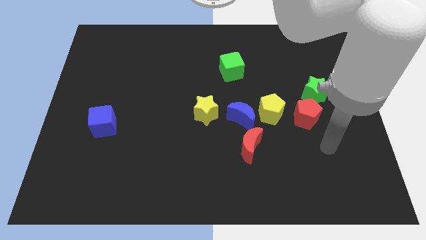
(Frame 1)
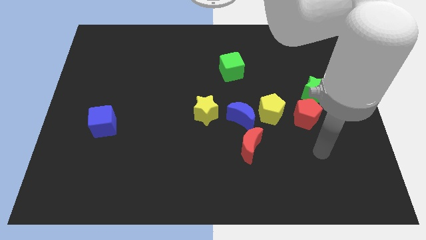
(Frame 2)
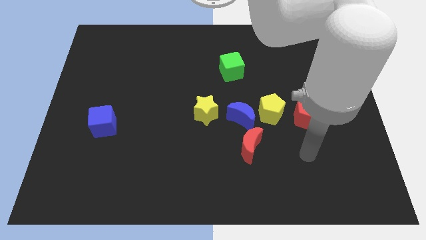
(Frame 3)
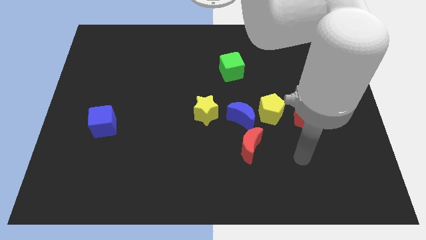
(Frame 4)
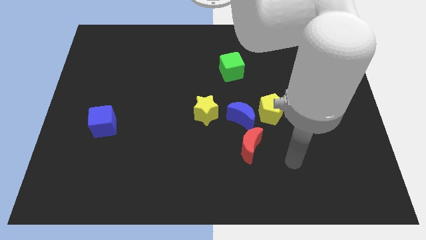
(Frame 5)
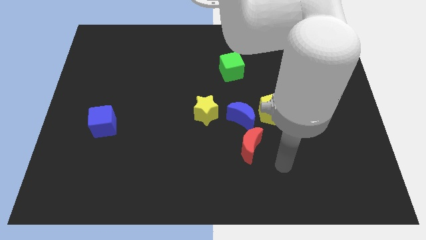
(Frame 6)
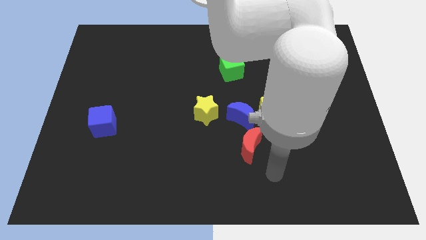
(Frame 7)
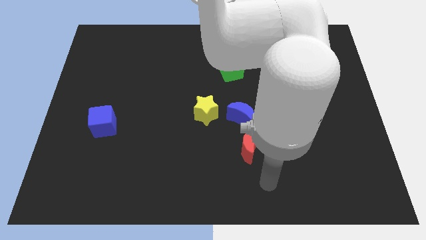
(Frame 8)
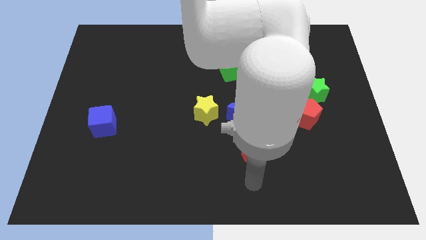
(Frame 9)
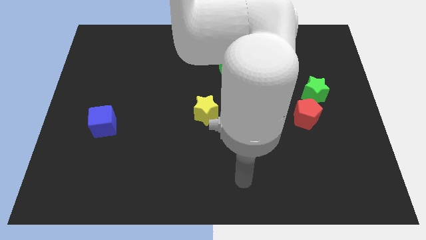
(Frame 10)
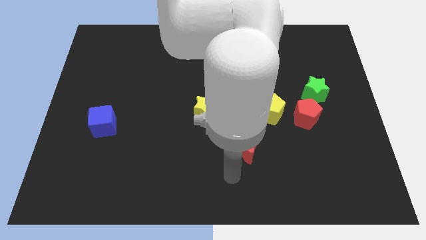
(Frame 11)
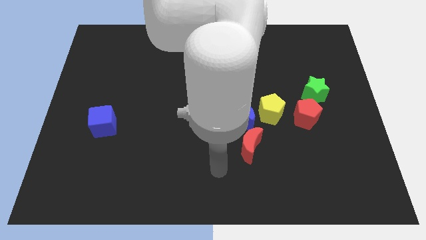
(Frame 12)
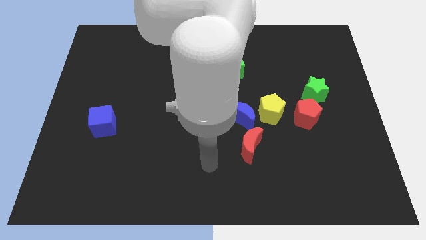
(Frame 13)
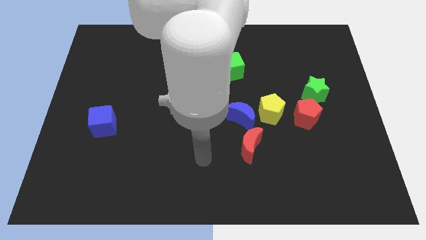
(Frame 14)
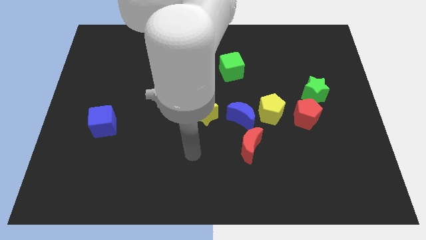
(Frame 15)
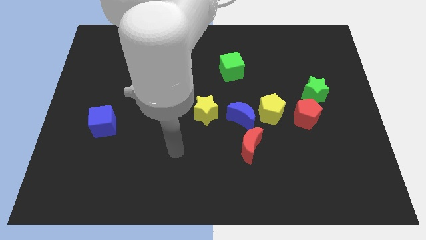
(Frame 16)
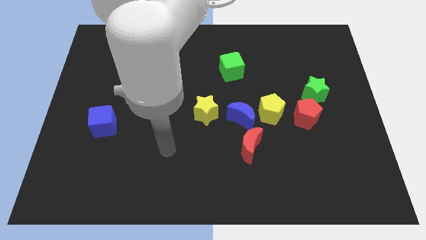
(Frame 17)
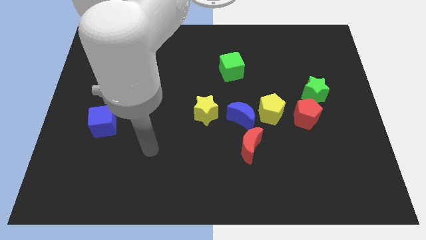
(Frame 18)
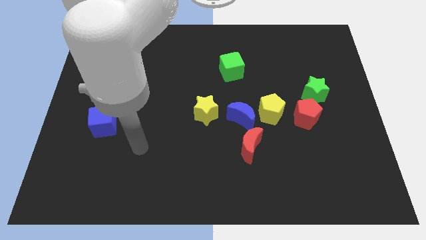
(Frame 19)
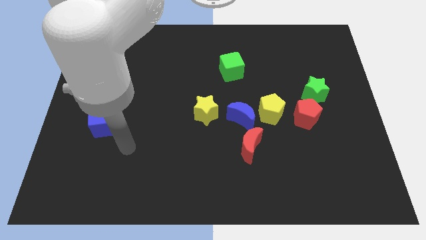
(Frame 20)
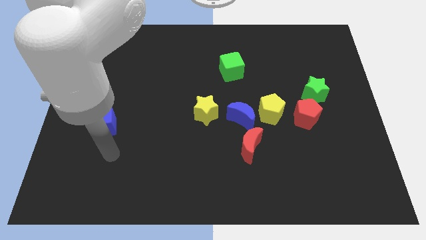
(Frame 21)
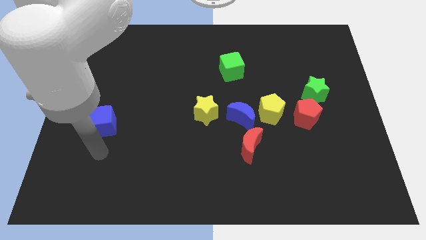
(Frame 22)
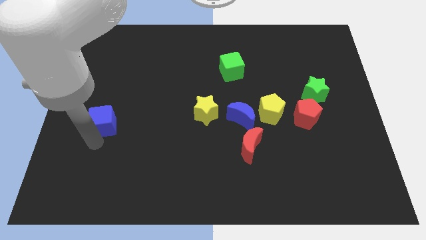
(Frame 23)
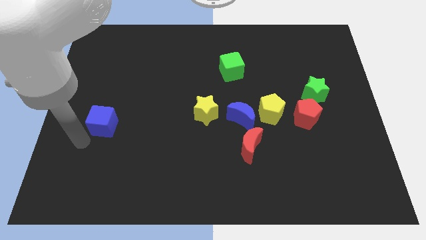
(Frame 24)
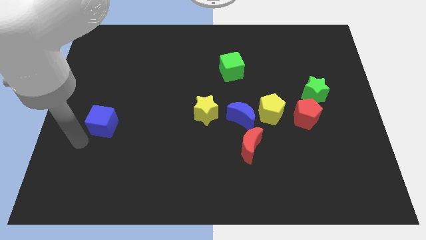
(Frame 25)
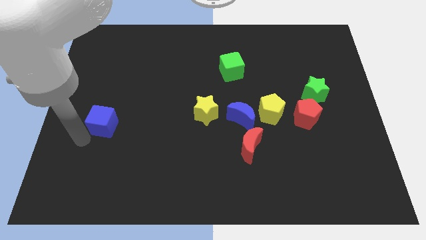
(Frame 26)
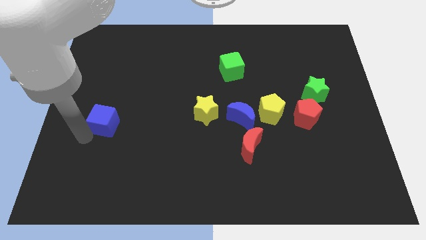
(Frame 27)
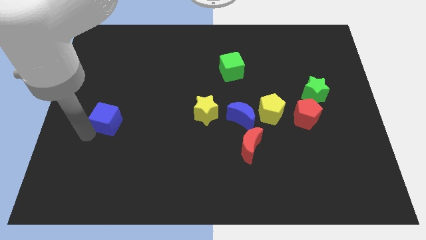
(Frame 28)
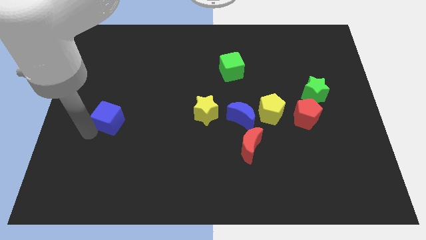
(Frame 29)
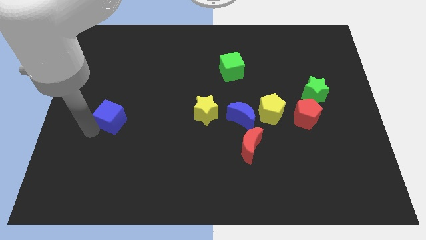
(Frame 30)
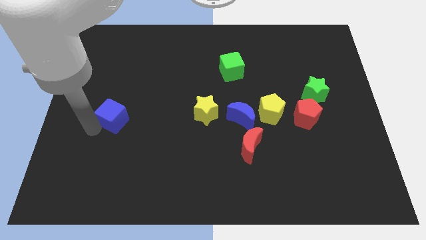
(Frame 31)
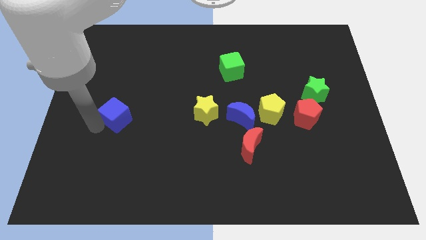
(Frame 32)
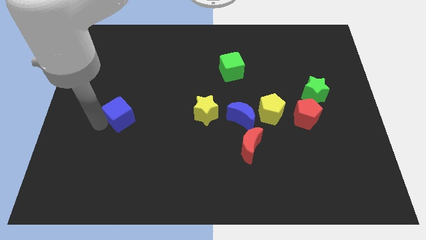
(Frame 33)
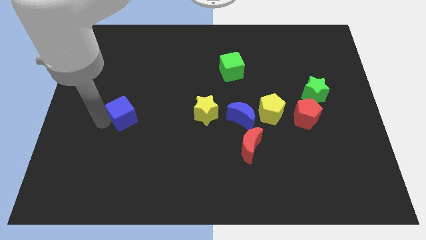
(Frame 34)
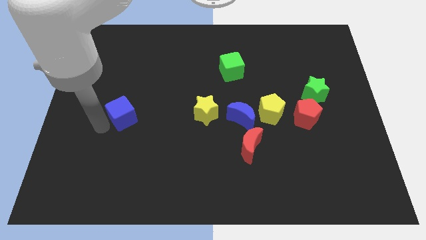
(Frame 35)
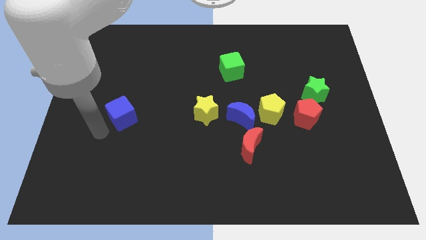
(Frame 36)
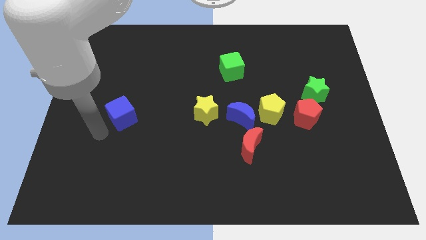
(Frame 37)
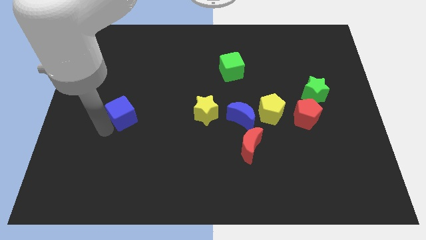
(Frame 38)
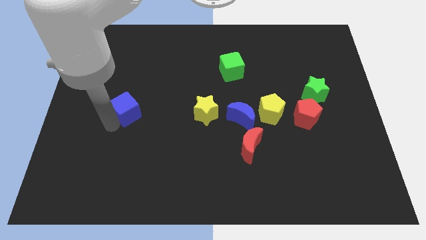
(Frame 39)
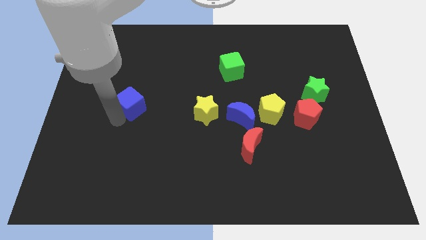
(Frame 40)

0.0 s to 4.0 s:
slide the blue cube upwards and then to the right slightly

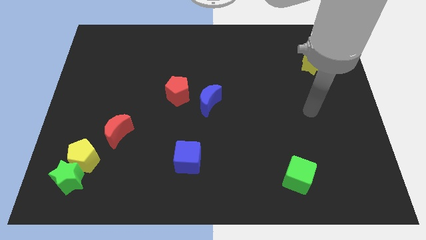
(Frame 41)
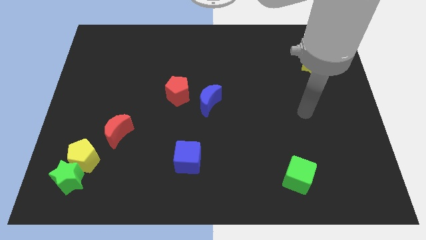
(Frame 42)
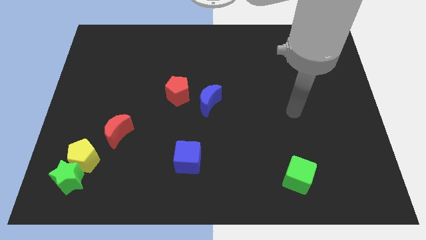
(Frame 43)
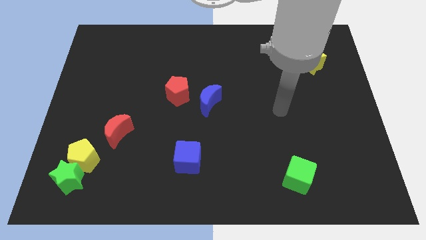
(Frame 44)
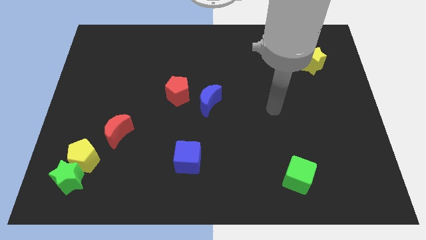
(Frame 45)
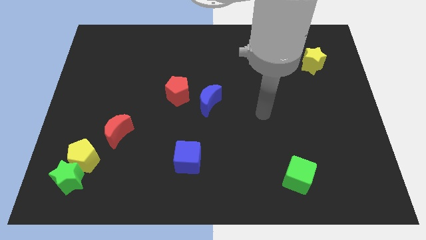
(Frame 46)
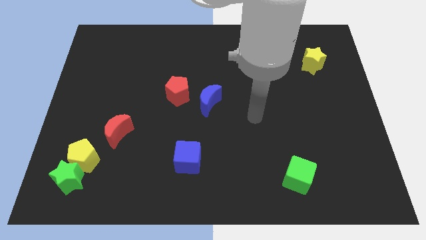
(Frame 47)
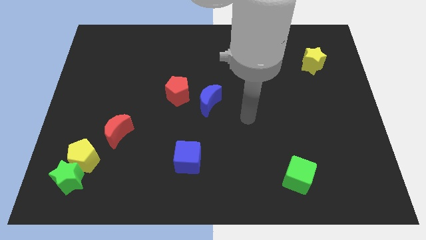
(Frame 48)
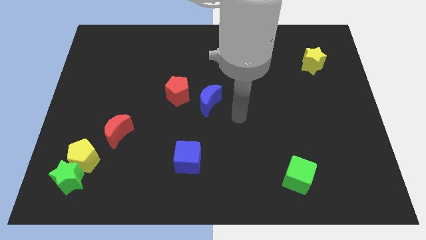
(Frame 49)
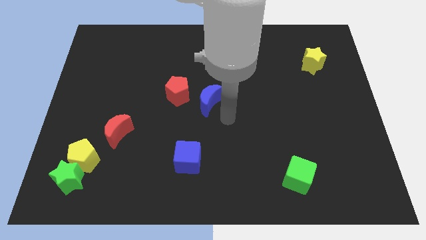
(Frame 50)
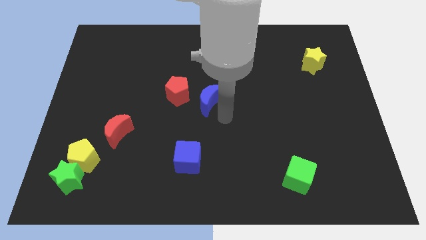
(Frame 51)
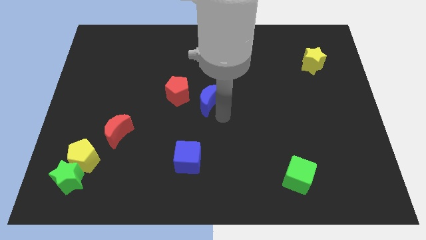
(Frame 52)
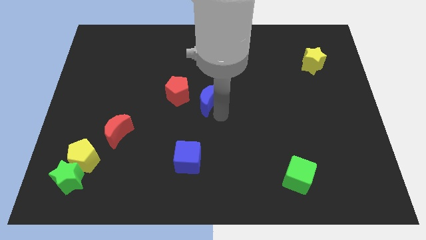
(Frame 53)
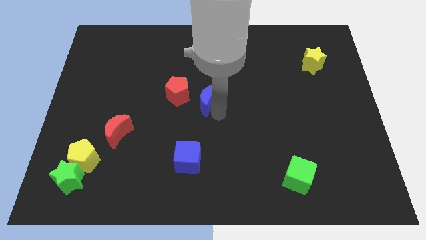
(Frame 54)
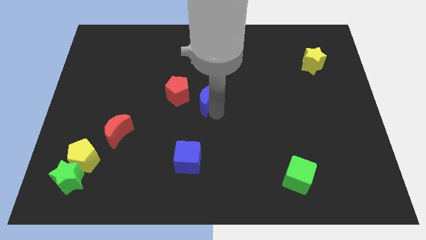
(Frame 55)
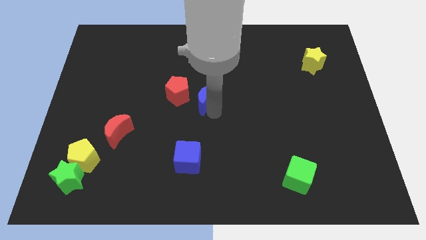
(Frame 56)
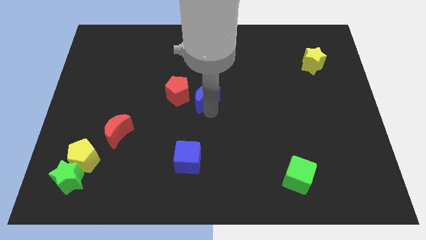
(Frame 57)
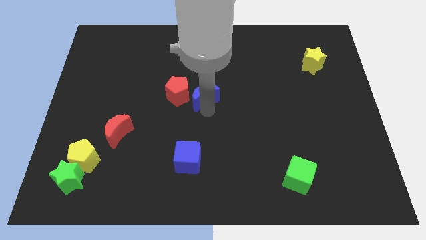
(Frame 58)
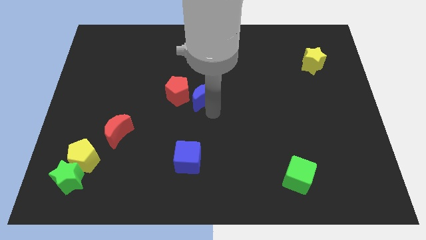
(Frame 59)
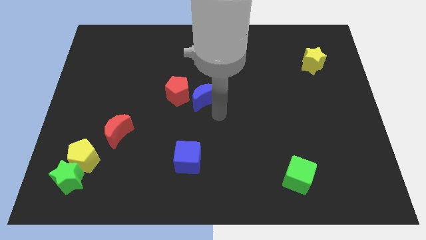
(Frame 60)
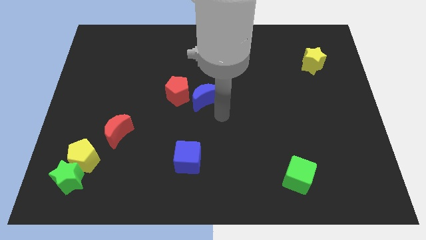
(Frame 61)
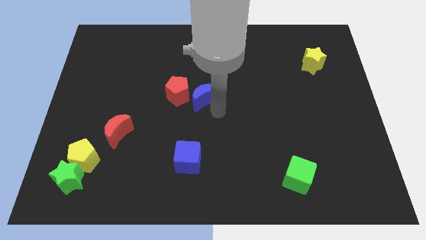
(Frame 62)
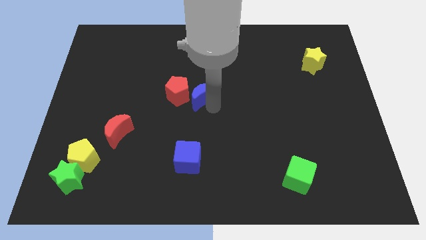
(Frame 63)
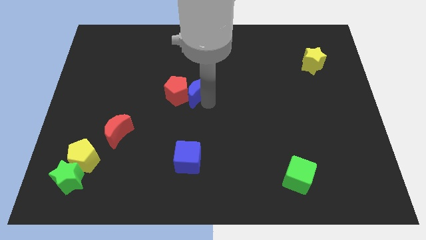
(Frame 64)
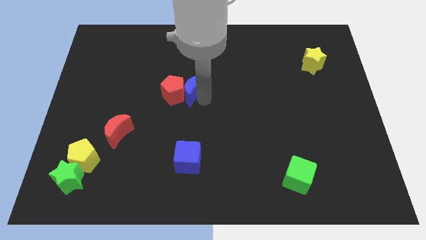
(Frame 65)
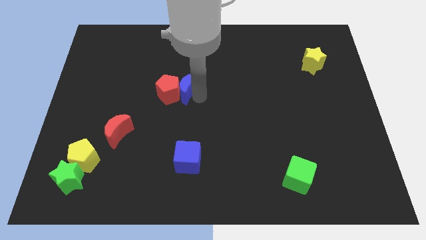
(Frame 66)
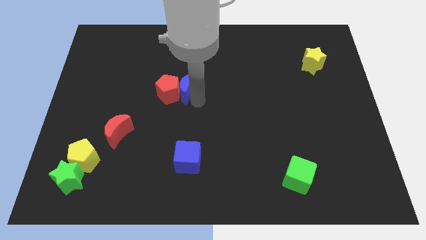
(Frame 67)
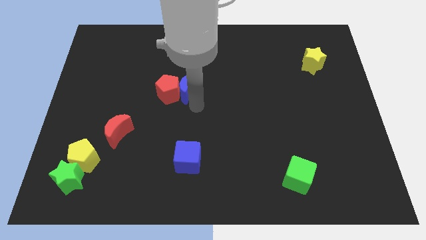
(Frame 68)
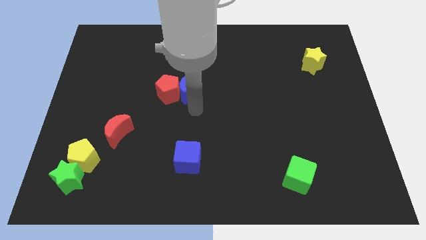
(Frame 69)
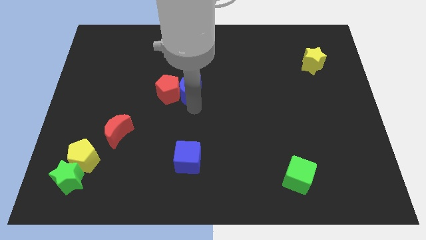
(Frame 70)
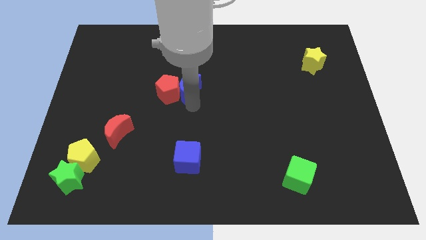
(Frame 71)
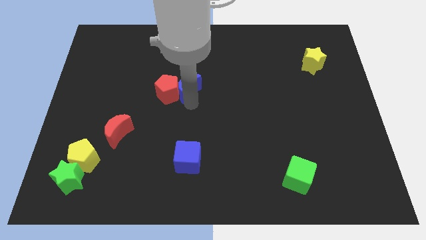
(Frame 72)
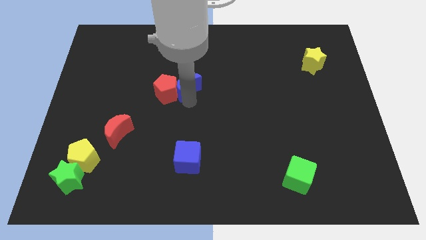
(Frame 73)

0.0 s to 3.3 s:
push the blue moon upwards and left diagonally slightly

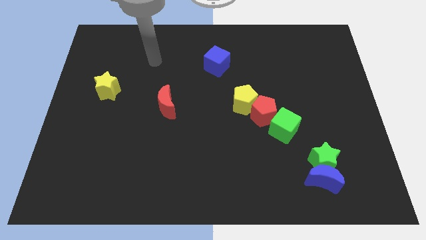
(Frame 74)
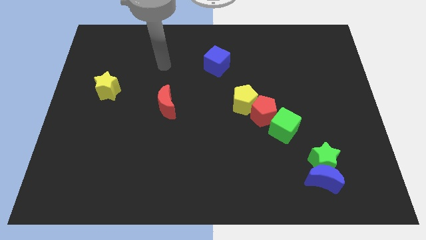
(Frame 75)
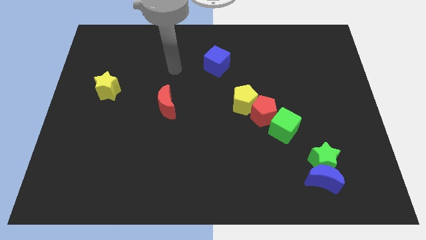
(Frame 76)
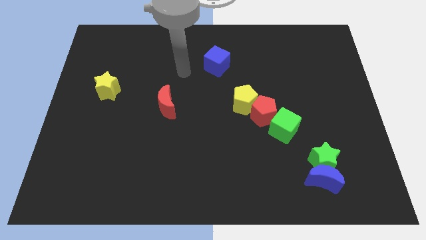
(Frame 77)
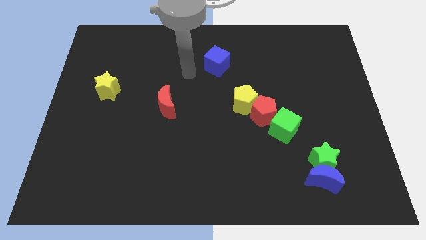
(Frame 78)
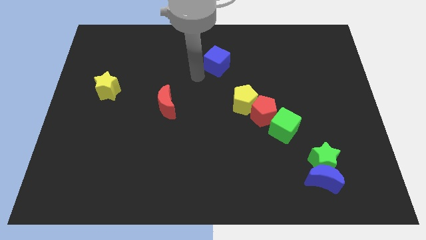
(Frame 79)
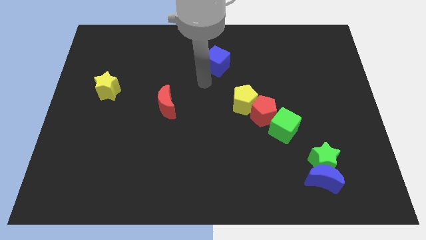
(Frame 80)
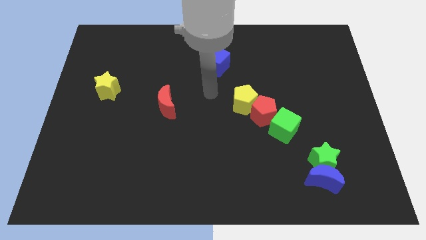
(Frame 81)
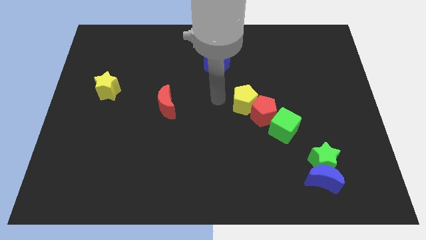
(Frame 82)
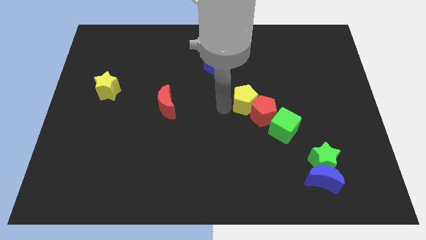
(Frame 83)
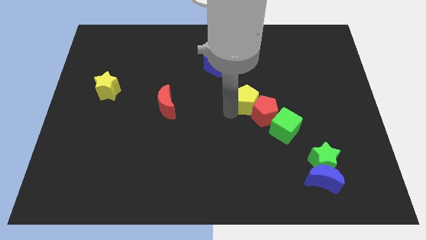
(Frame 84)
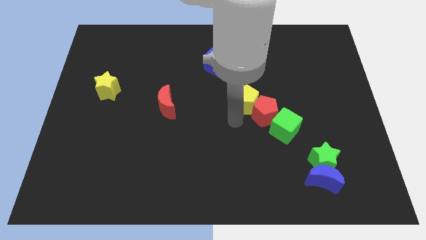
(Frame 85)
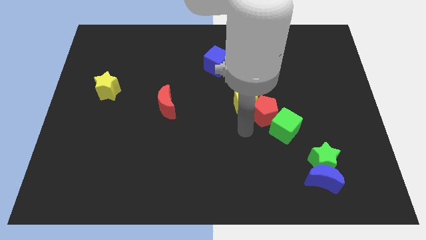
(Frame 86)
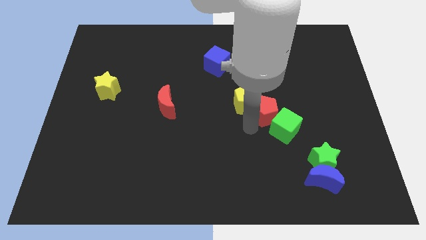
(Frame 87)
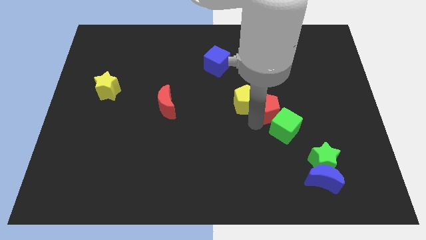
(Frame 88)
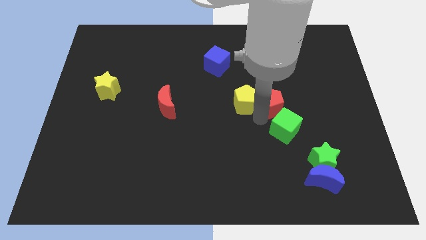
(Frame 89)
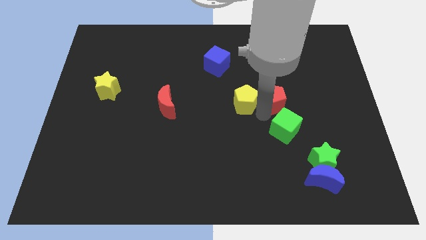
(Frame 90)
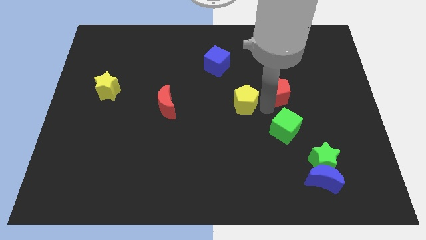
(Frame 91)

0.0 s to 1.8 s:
slightly slide the red pentagon upwards and then right
